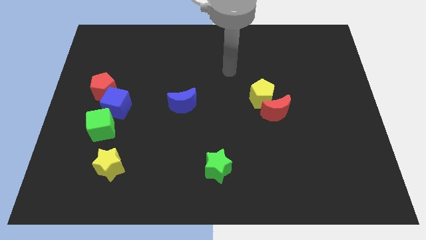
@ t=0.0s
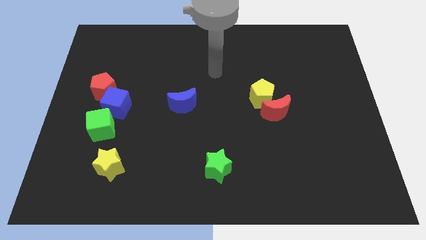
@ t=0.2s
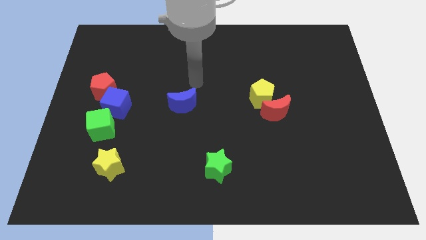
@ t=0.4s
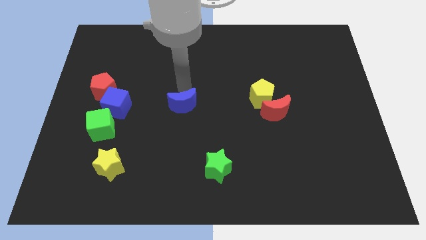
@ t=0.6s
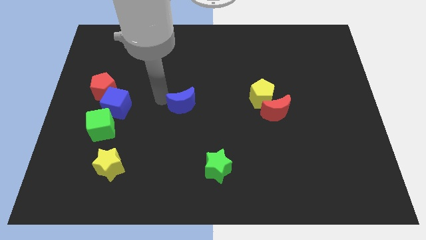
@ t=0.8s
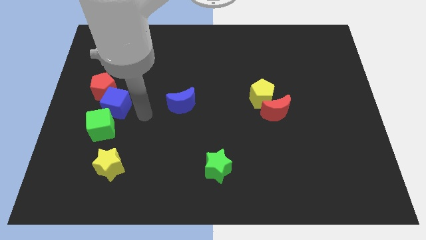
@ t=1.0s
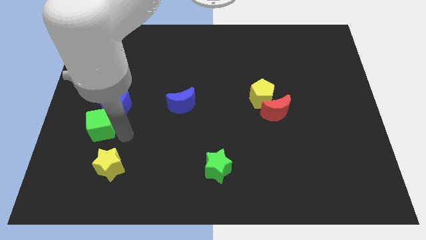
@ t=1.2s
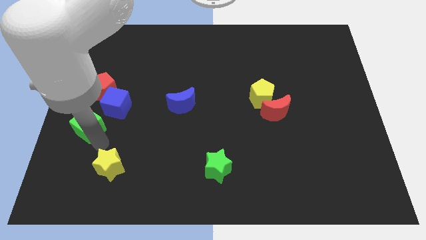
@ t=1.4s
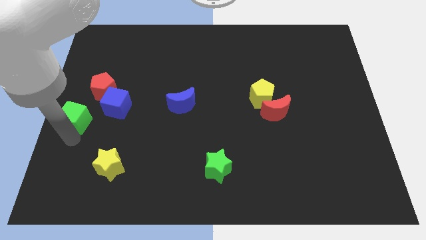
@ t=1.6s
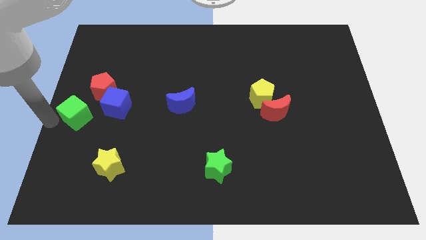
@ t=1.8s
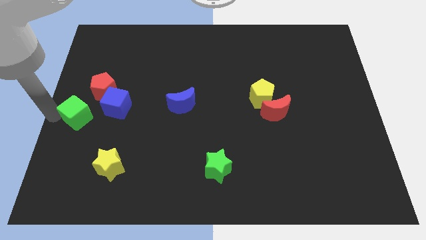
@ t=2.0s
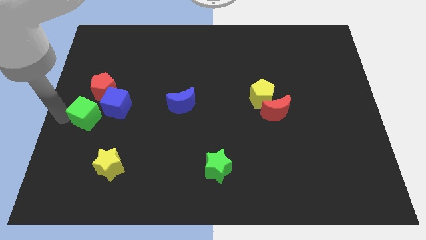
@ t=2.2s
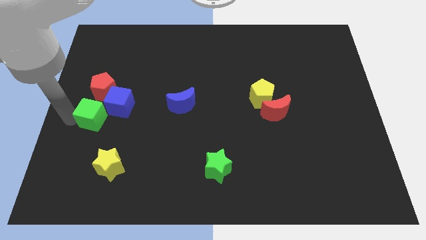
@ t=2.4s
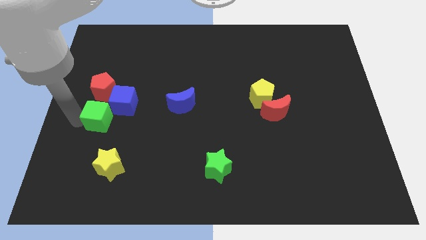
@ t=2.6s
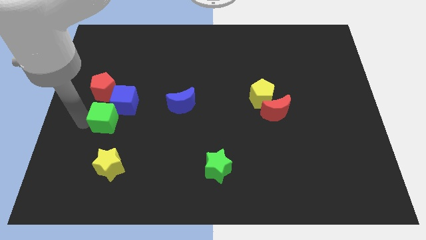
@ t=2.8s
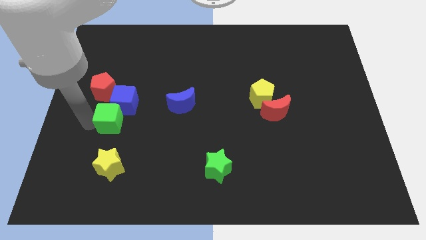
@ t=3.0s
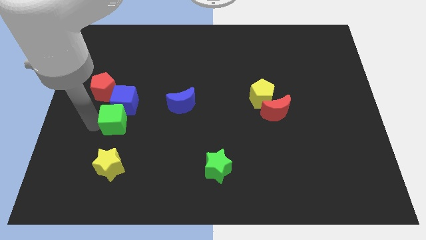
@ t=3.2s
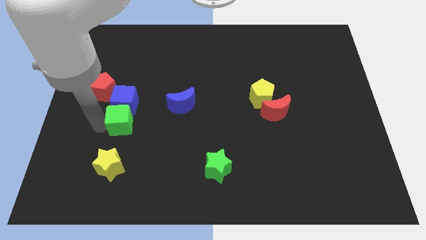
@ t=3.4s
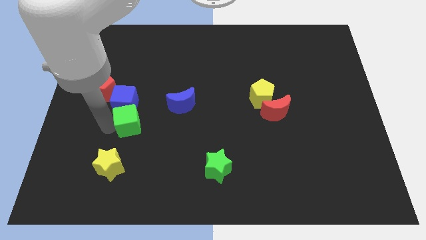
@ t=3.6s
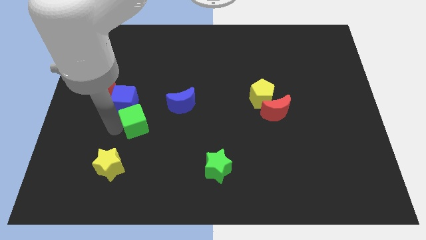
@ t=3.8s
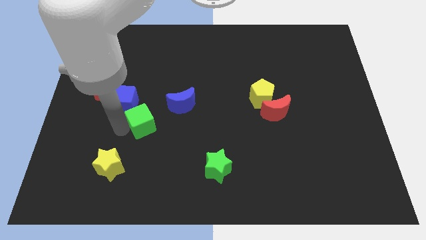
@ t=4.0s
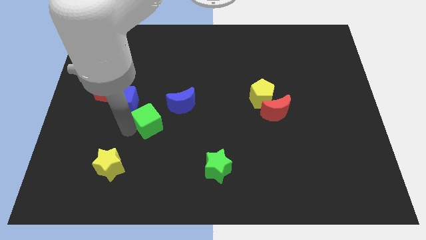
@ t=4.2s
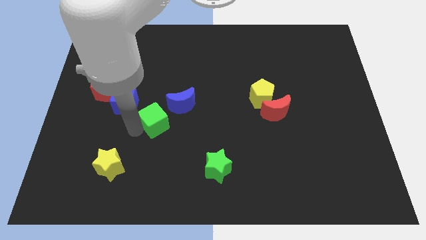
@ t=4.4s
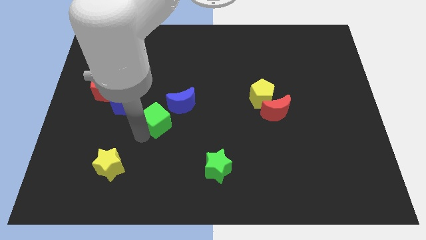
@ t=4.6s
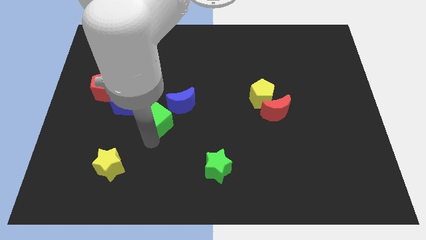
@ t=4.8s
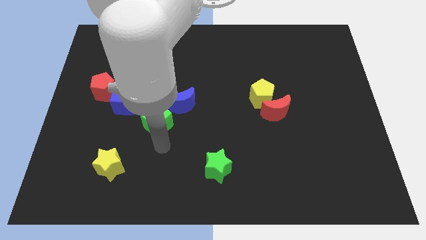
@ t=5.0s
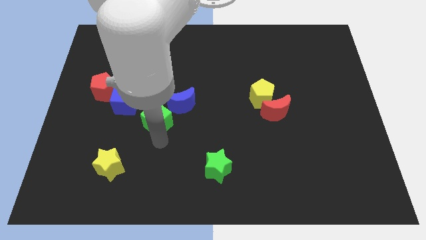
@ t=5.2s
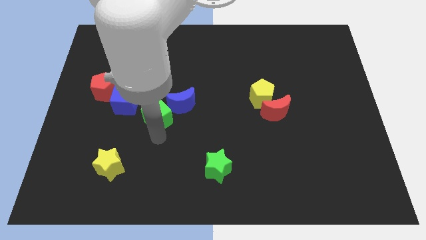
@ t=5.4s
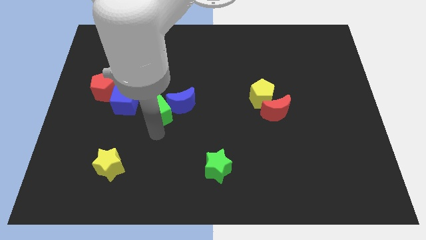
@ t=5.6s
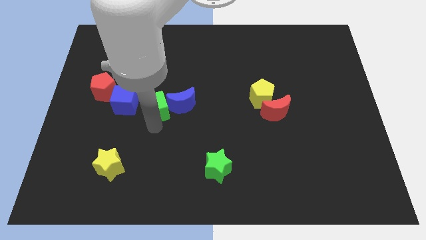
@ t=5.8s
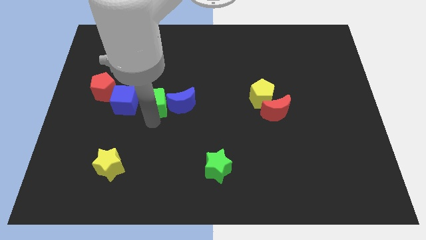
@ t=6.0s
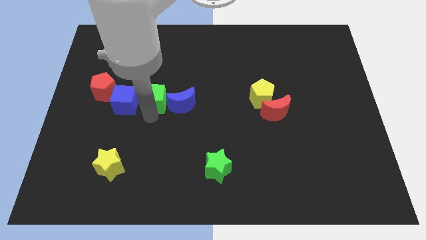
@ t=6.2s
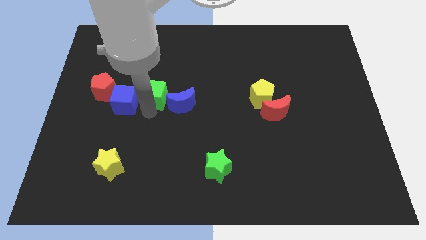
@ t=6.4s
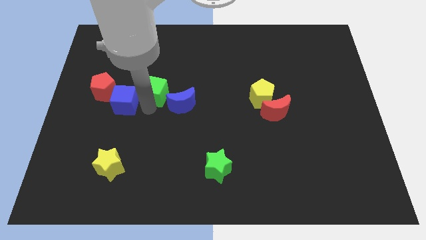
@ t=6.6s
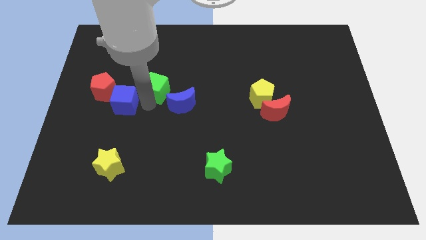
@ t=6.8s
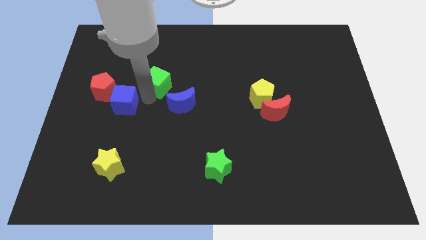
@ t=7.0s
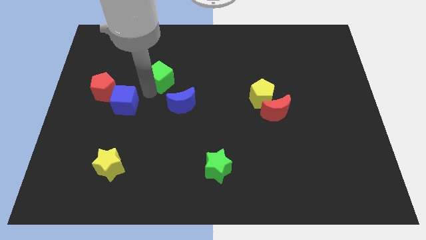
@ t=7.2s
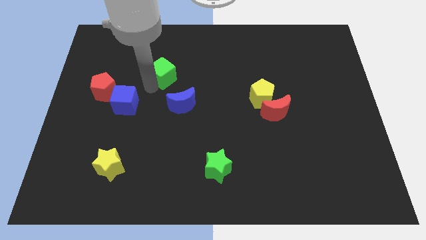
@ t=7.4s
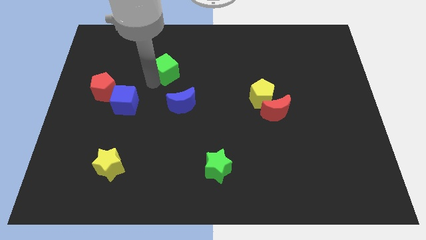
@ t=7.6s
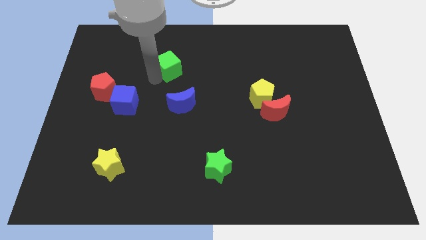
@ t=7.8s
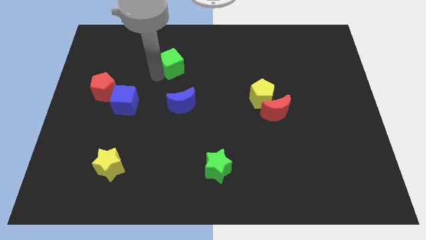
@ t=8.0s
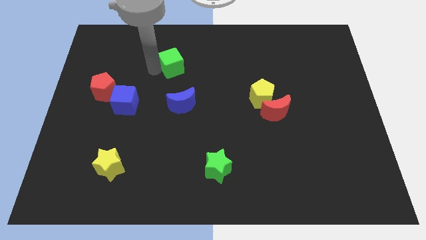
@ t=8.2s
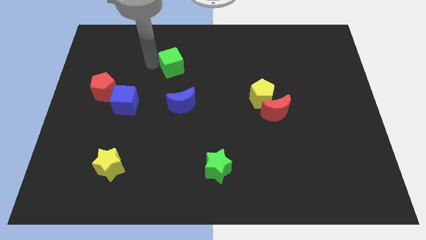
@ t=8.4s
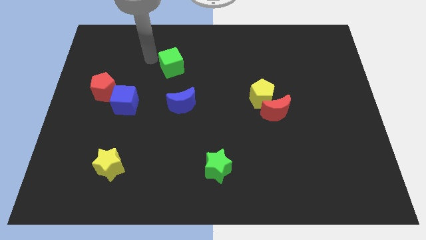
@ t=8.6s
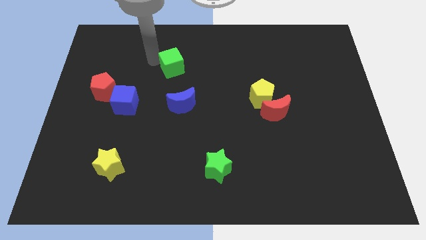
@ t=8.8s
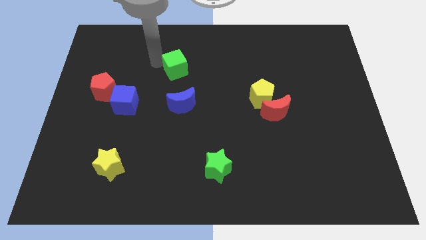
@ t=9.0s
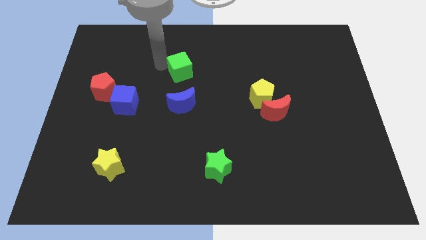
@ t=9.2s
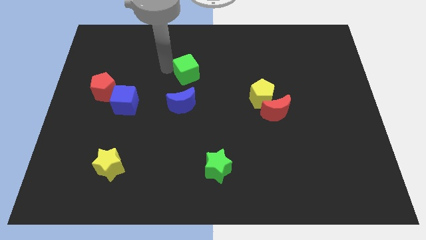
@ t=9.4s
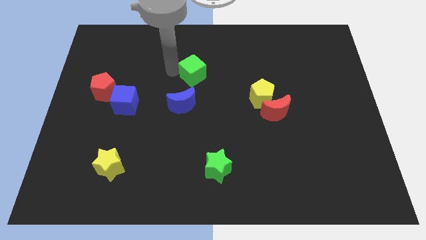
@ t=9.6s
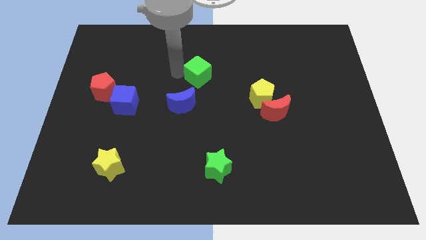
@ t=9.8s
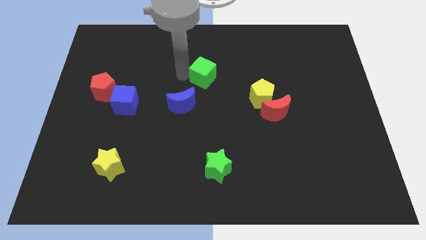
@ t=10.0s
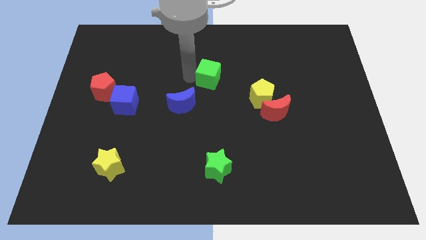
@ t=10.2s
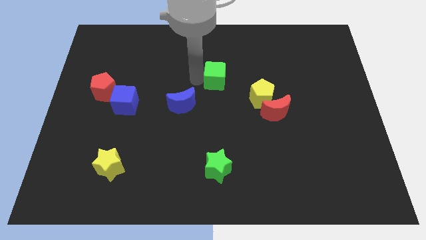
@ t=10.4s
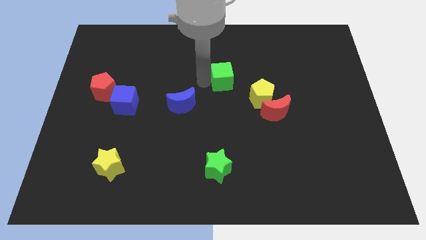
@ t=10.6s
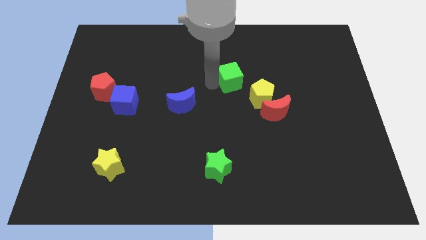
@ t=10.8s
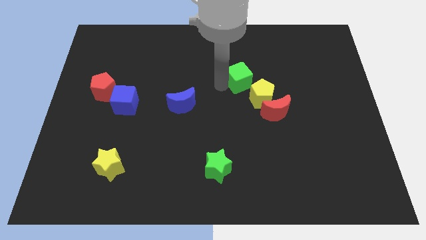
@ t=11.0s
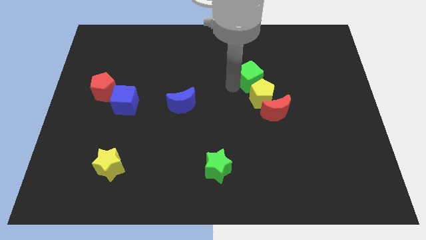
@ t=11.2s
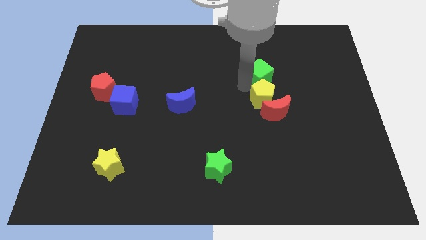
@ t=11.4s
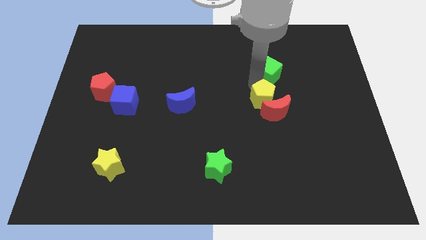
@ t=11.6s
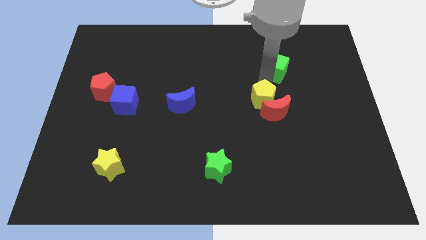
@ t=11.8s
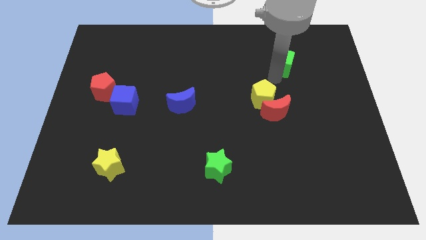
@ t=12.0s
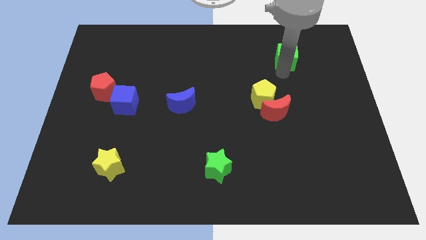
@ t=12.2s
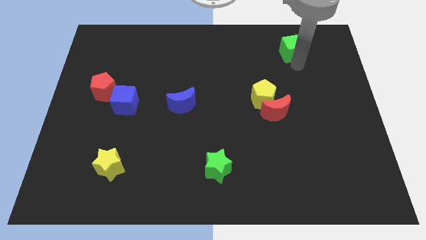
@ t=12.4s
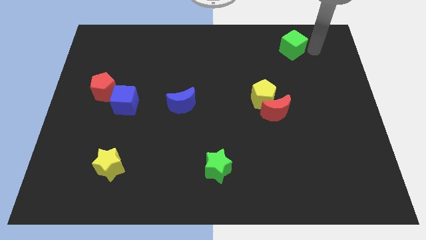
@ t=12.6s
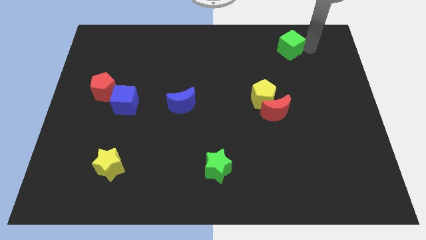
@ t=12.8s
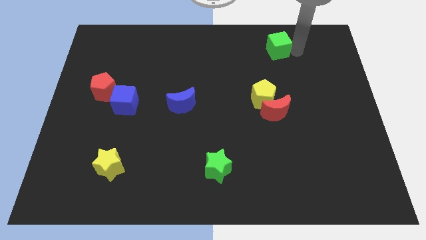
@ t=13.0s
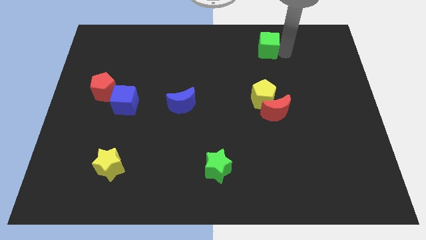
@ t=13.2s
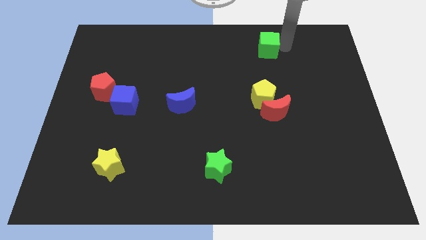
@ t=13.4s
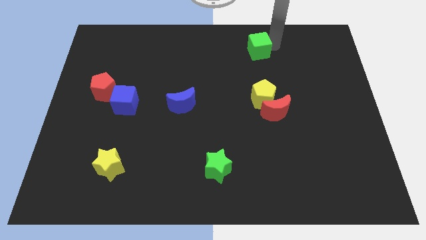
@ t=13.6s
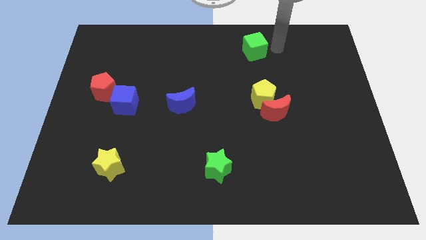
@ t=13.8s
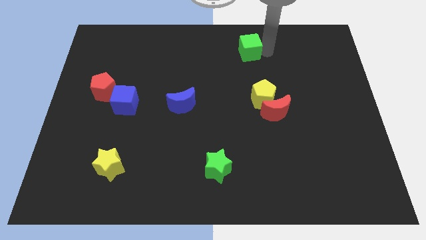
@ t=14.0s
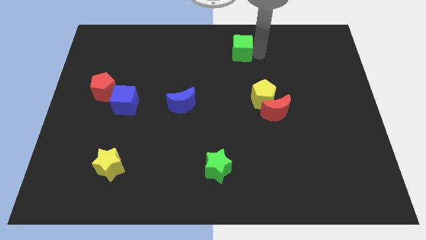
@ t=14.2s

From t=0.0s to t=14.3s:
move the green cube to the towards your base

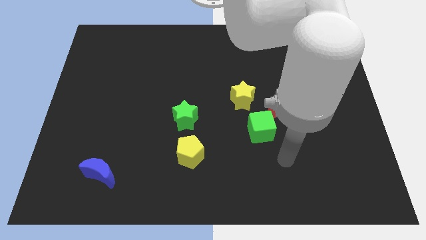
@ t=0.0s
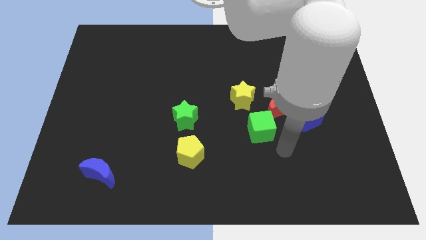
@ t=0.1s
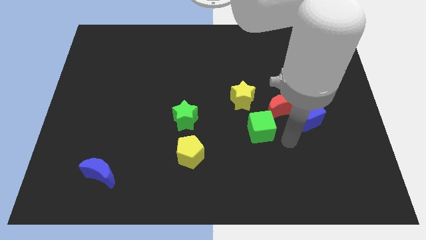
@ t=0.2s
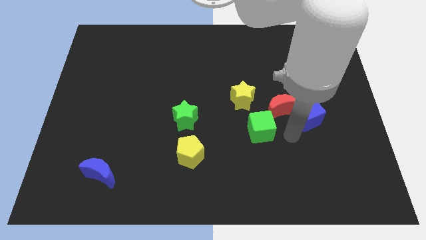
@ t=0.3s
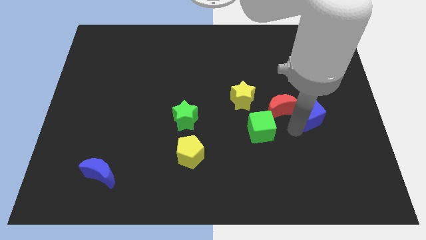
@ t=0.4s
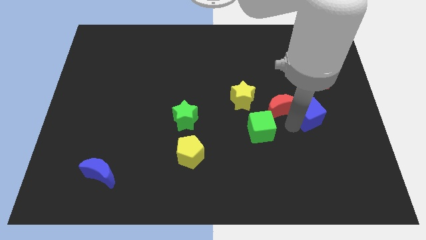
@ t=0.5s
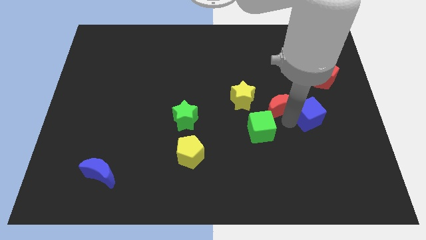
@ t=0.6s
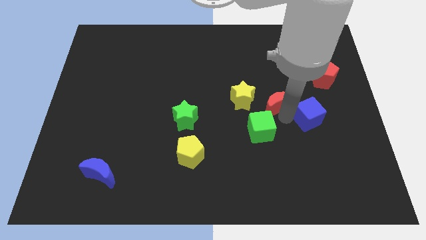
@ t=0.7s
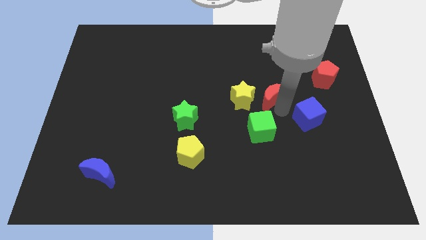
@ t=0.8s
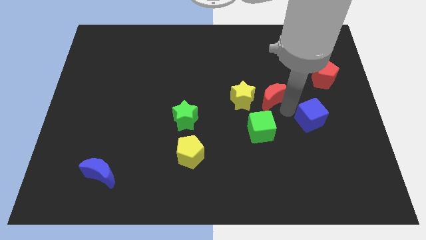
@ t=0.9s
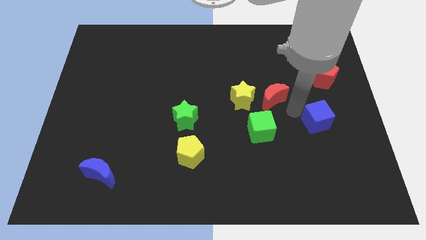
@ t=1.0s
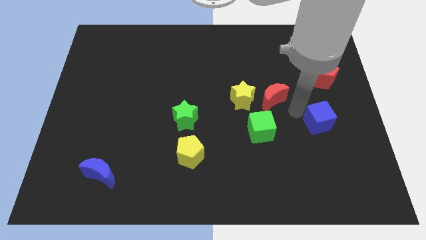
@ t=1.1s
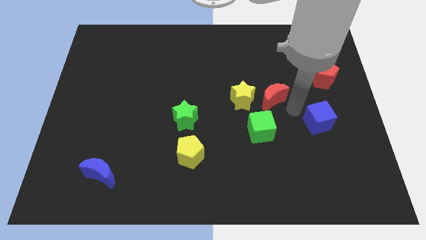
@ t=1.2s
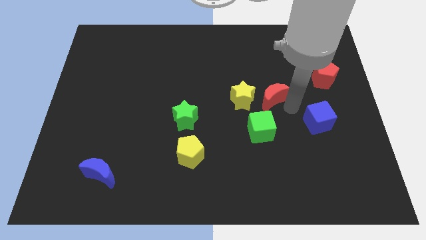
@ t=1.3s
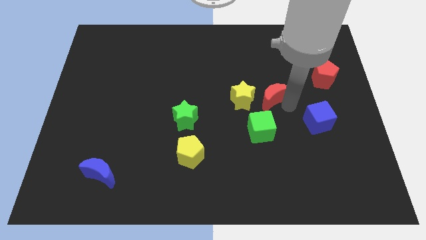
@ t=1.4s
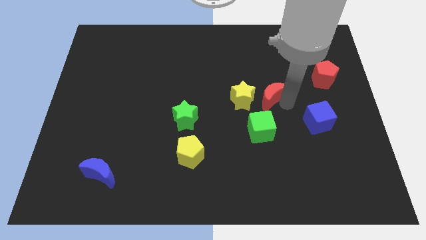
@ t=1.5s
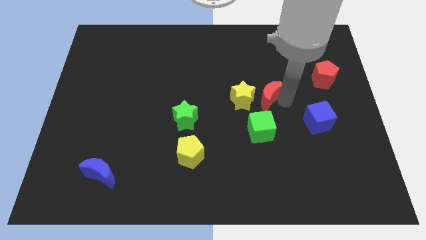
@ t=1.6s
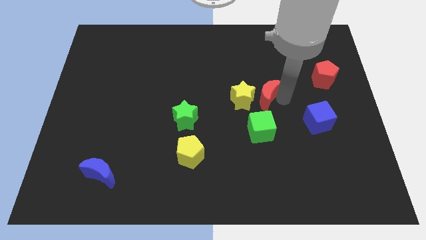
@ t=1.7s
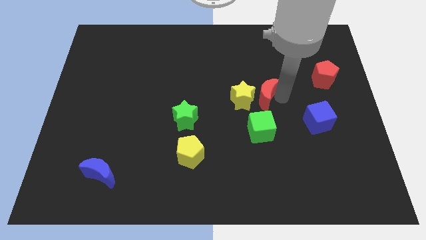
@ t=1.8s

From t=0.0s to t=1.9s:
push the red moon to the center of the board
